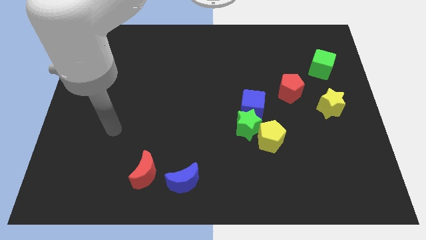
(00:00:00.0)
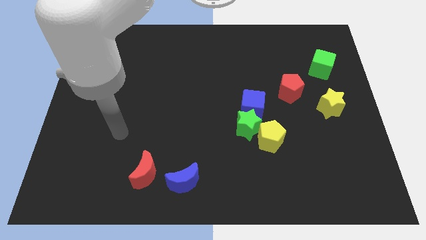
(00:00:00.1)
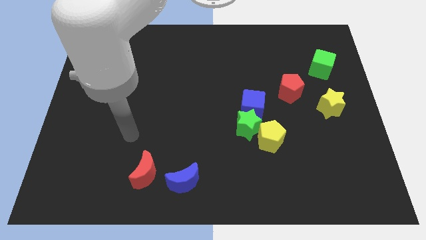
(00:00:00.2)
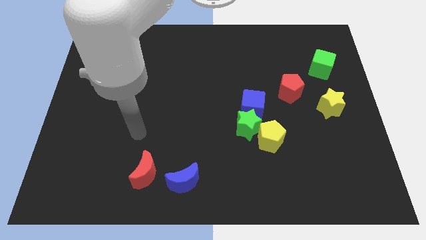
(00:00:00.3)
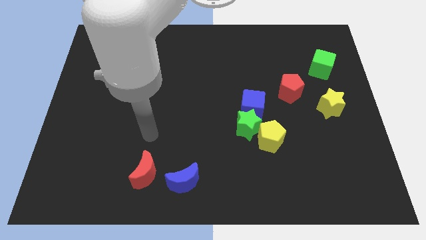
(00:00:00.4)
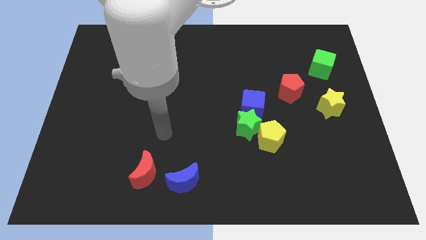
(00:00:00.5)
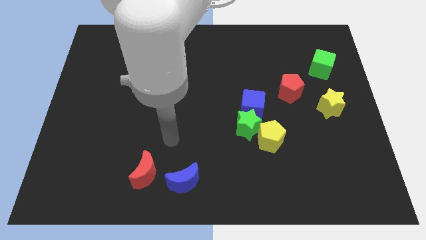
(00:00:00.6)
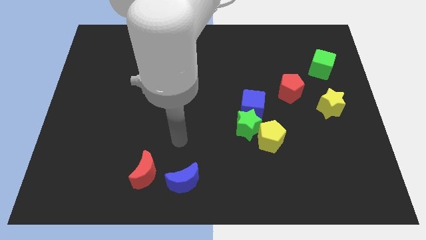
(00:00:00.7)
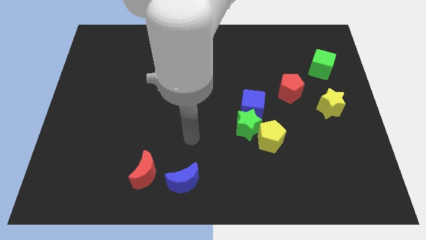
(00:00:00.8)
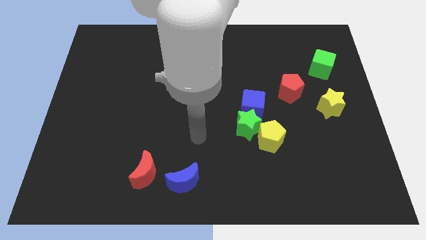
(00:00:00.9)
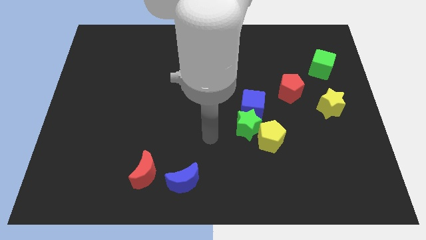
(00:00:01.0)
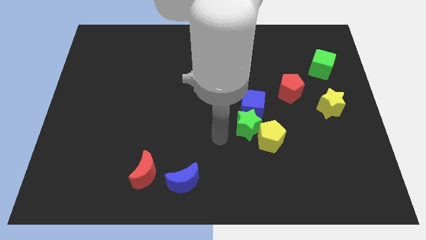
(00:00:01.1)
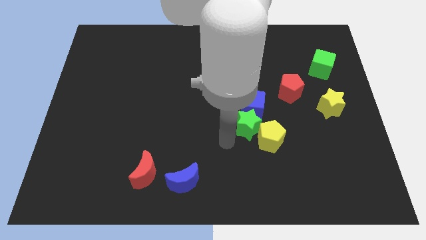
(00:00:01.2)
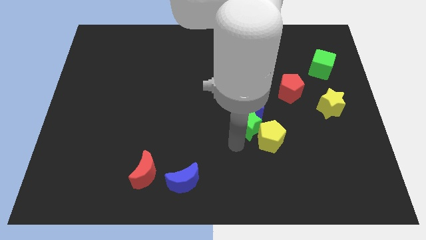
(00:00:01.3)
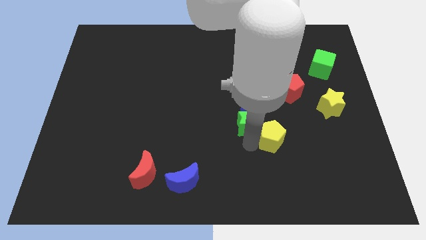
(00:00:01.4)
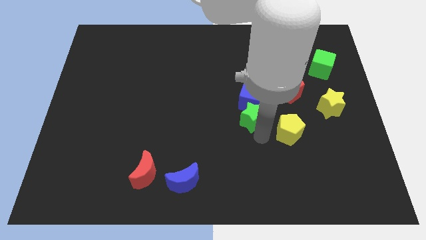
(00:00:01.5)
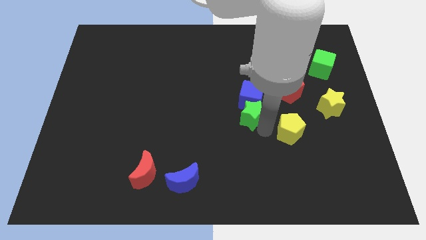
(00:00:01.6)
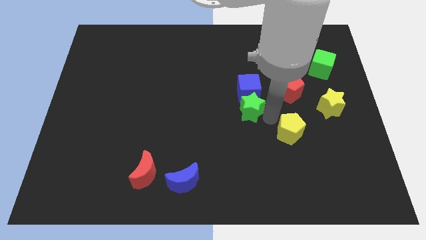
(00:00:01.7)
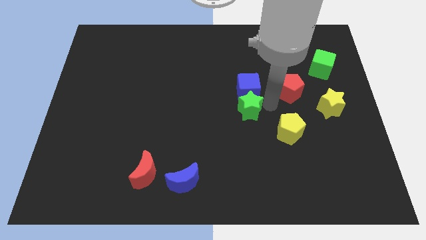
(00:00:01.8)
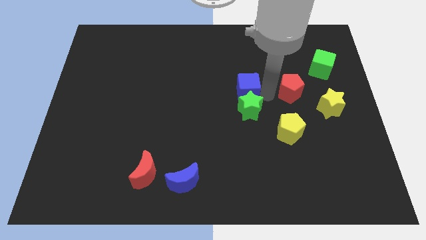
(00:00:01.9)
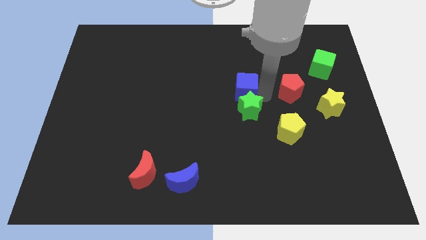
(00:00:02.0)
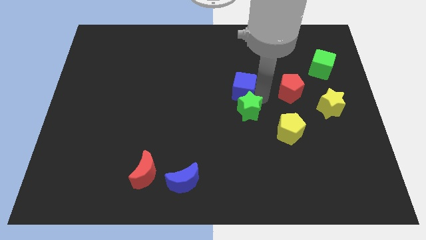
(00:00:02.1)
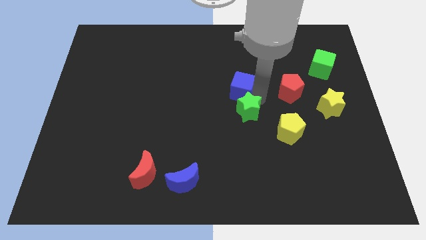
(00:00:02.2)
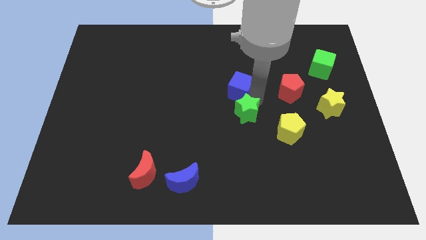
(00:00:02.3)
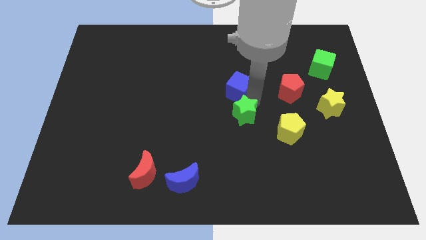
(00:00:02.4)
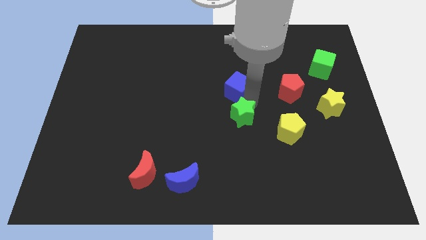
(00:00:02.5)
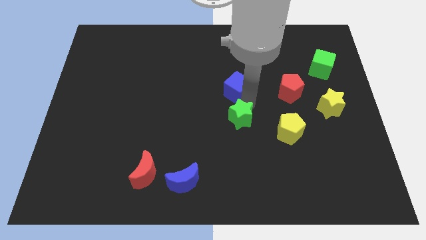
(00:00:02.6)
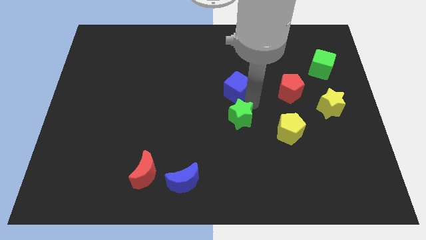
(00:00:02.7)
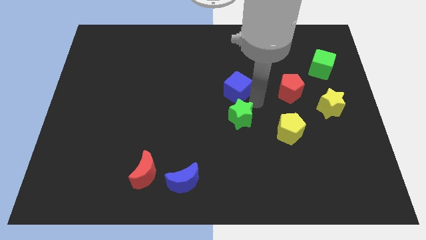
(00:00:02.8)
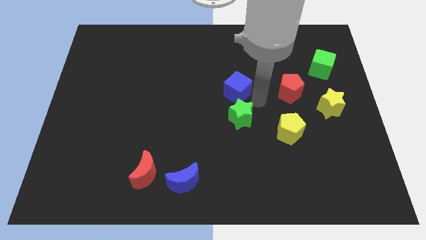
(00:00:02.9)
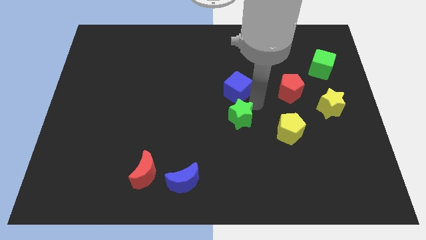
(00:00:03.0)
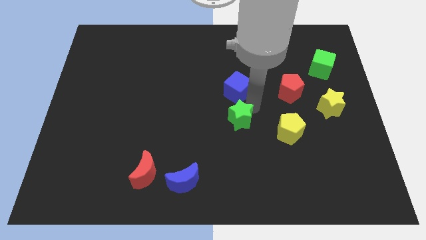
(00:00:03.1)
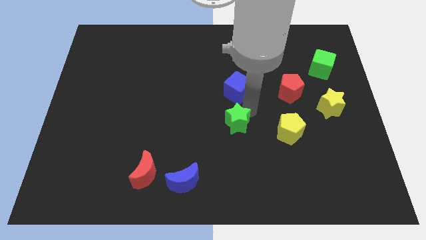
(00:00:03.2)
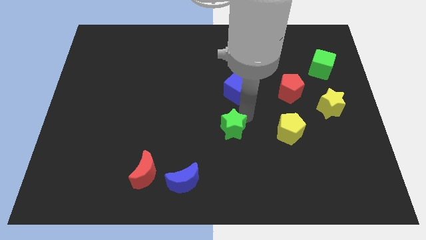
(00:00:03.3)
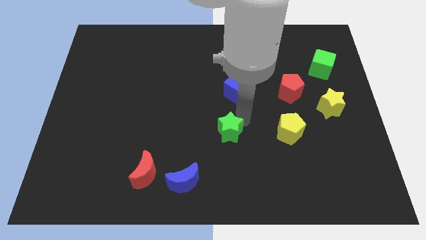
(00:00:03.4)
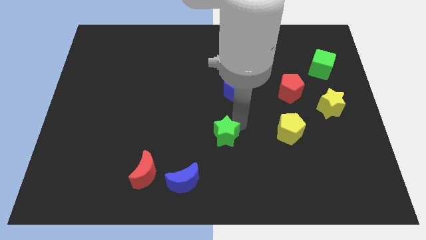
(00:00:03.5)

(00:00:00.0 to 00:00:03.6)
pull the green star apart from the blue cube and yellow pentagon

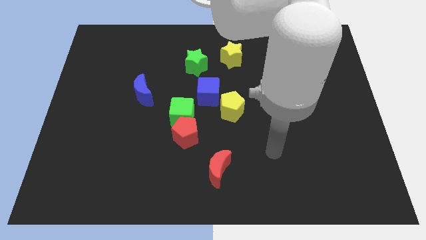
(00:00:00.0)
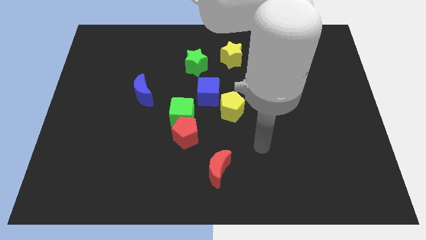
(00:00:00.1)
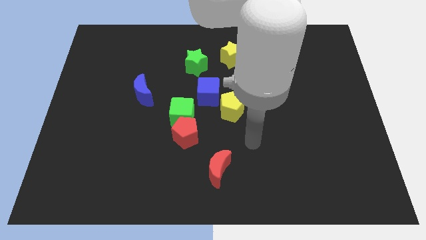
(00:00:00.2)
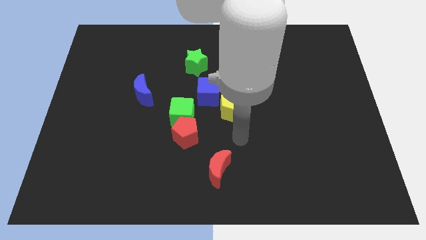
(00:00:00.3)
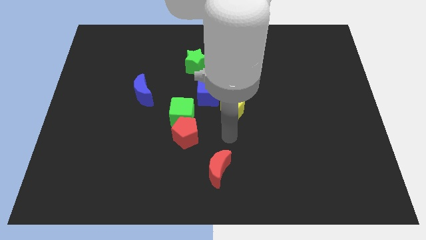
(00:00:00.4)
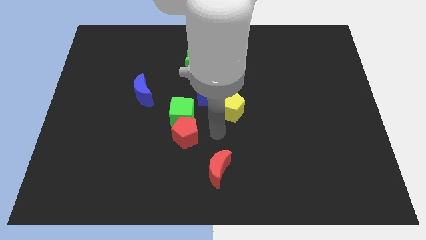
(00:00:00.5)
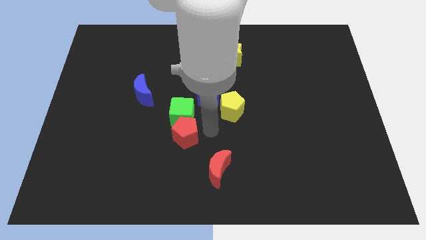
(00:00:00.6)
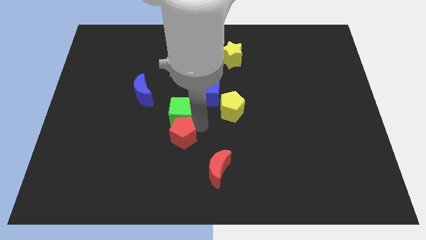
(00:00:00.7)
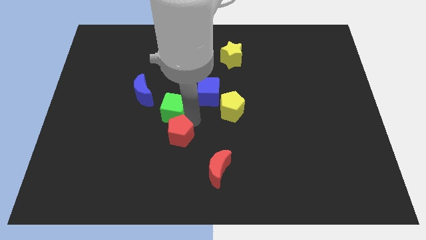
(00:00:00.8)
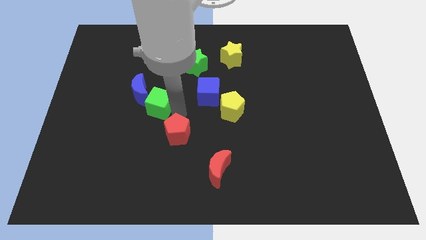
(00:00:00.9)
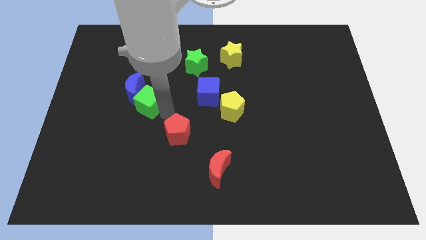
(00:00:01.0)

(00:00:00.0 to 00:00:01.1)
pull the red pentagon apart from the green cube

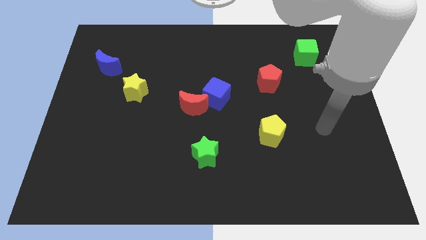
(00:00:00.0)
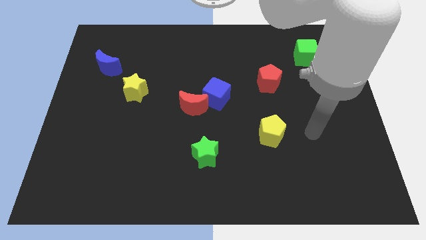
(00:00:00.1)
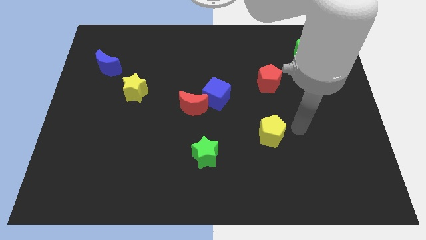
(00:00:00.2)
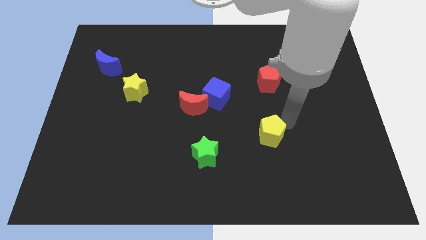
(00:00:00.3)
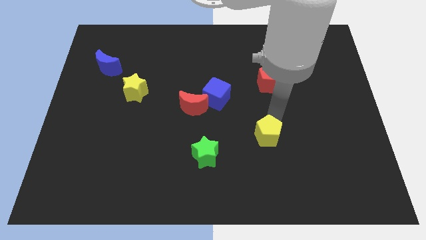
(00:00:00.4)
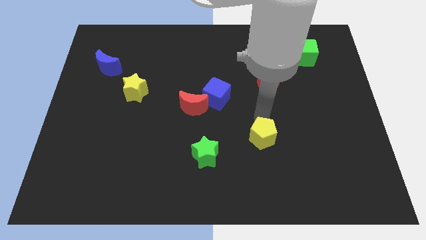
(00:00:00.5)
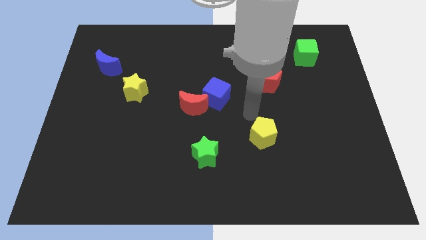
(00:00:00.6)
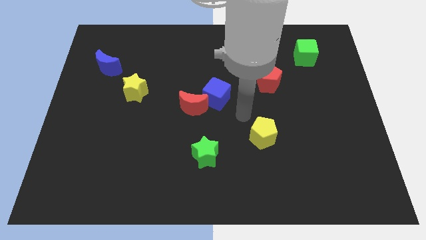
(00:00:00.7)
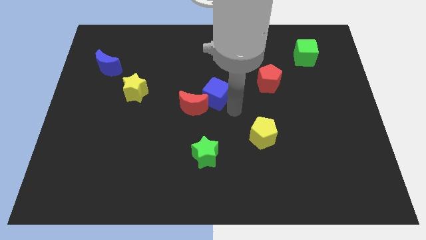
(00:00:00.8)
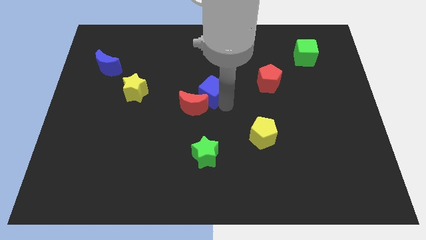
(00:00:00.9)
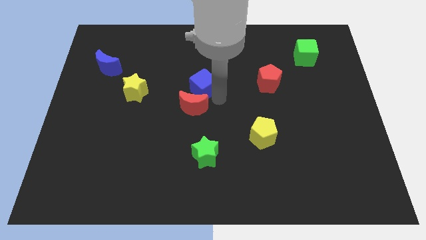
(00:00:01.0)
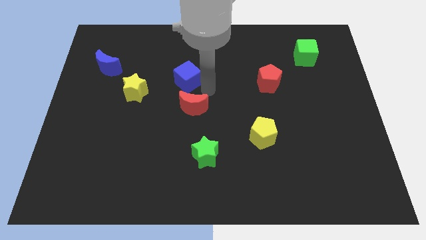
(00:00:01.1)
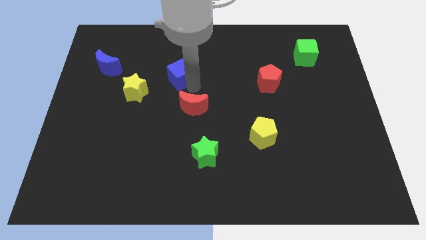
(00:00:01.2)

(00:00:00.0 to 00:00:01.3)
separate the red moon from the blue cube

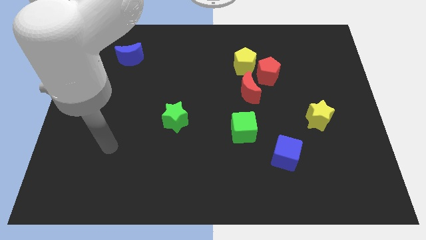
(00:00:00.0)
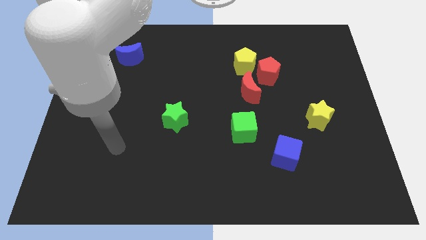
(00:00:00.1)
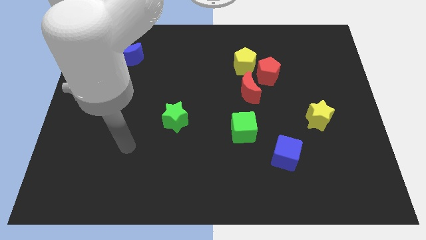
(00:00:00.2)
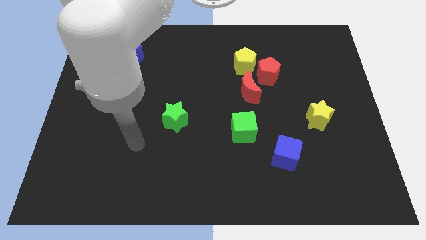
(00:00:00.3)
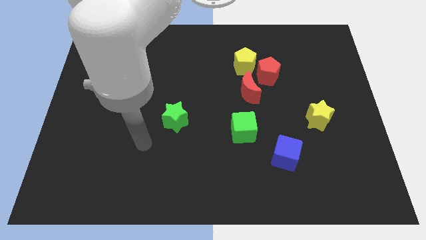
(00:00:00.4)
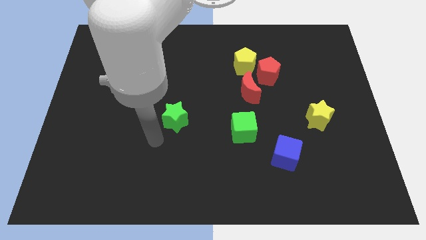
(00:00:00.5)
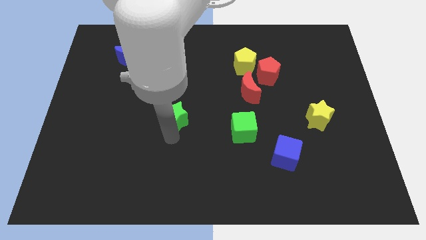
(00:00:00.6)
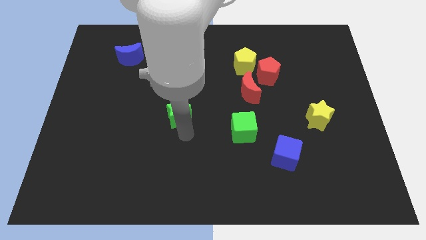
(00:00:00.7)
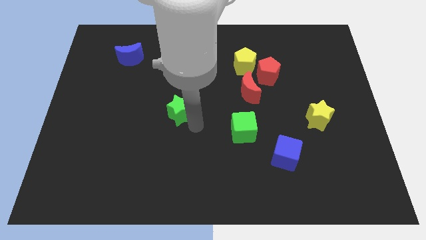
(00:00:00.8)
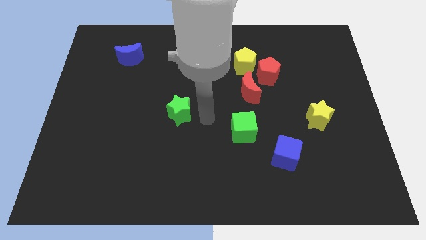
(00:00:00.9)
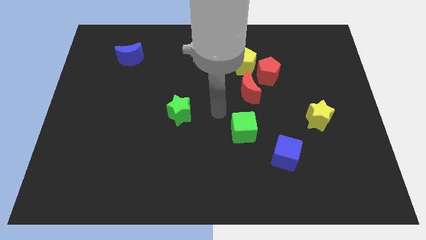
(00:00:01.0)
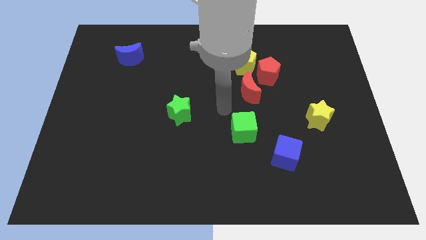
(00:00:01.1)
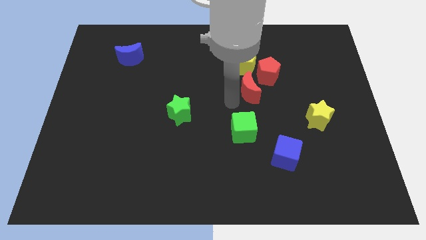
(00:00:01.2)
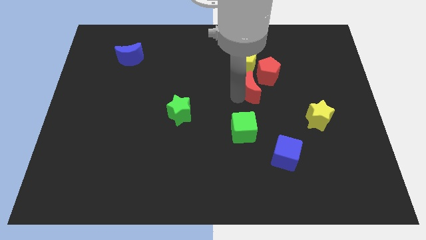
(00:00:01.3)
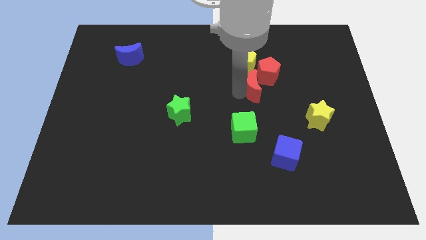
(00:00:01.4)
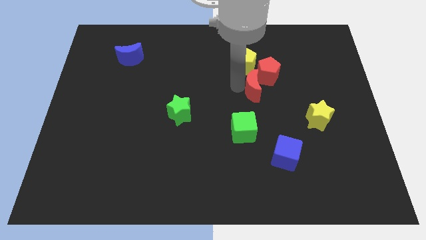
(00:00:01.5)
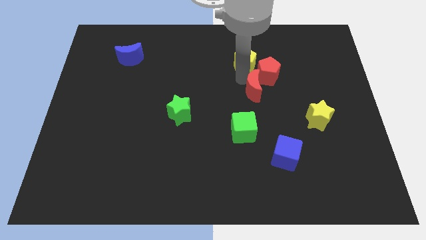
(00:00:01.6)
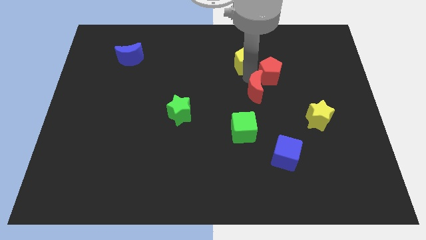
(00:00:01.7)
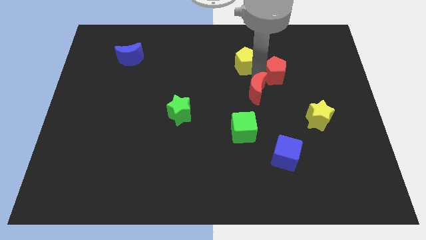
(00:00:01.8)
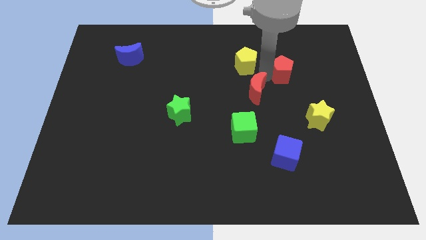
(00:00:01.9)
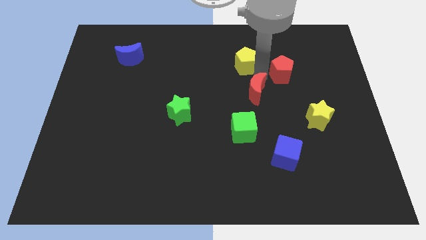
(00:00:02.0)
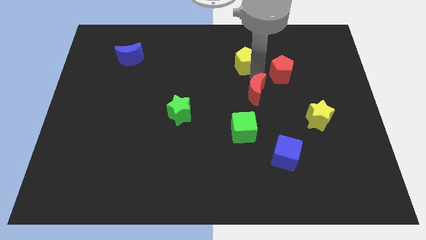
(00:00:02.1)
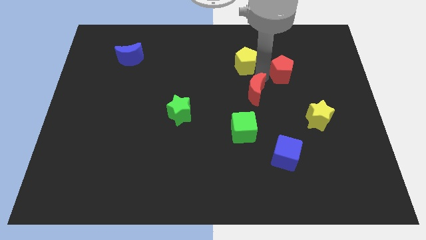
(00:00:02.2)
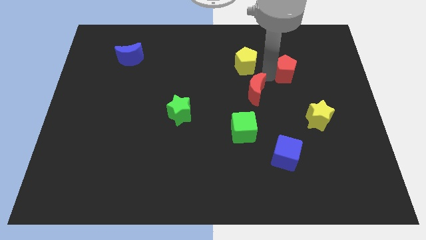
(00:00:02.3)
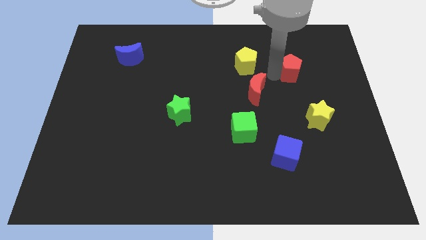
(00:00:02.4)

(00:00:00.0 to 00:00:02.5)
separate the red pentagon from the yellow pentagon and red moon

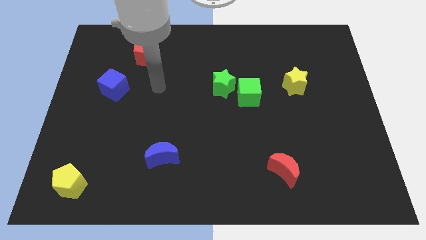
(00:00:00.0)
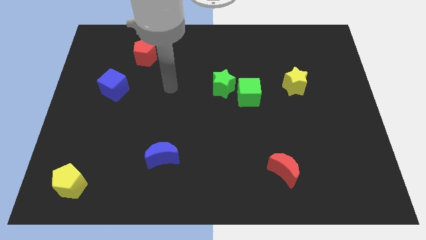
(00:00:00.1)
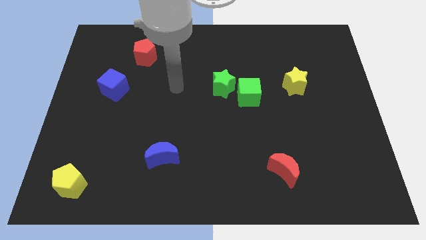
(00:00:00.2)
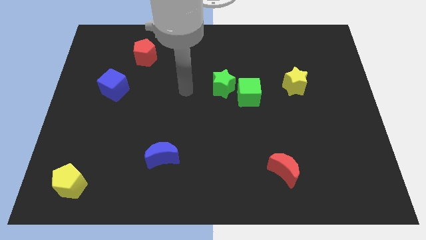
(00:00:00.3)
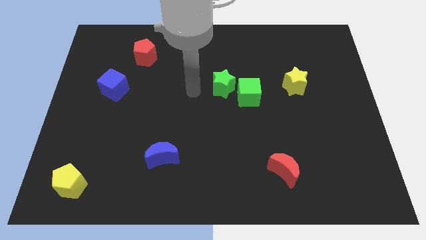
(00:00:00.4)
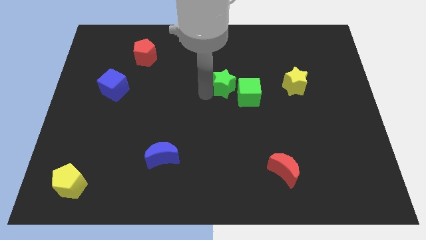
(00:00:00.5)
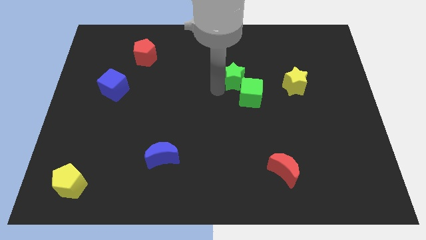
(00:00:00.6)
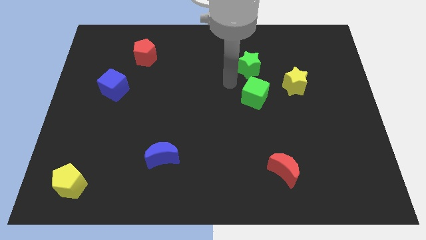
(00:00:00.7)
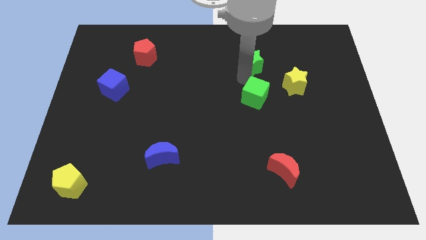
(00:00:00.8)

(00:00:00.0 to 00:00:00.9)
pull the green cube apart from the green star
